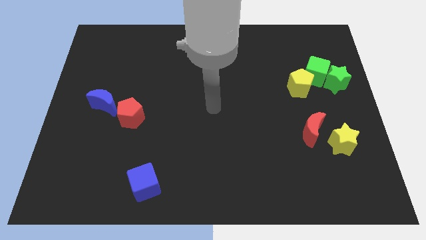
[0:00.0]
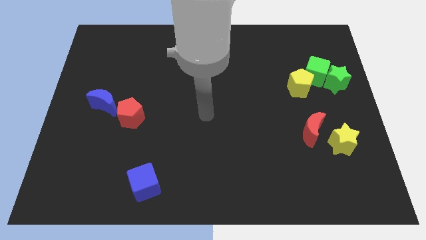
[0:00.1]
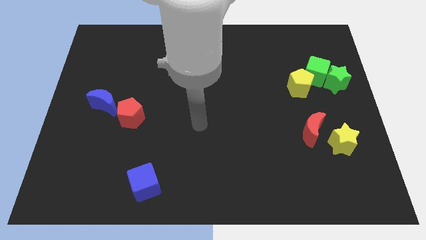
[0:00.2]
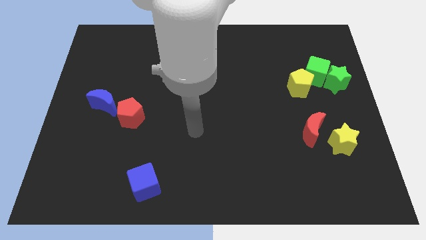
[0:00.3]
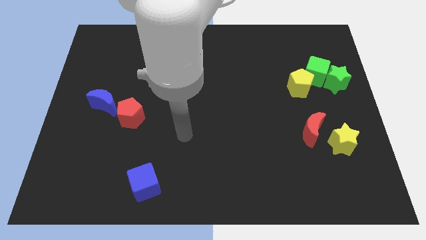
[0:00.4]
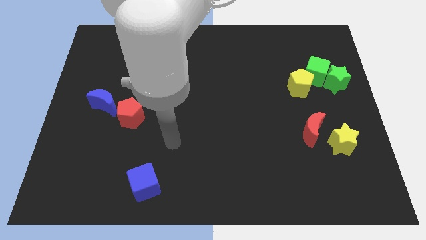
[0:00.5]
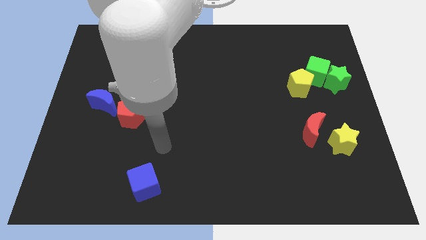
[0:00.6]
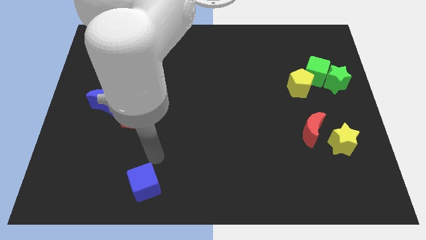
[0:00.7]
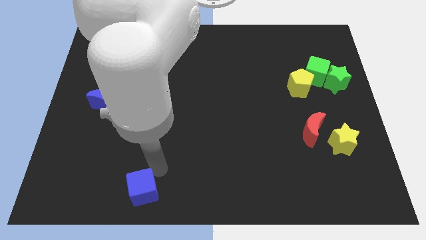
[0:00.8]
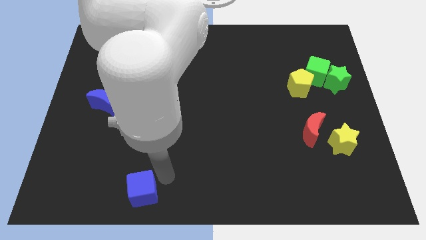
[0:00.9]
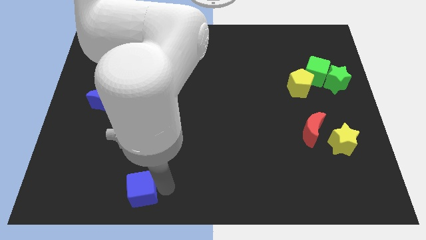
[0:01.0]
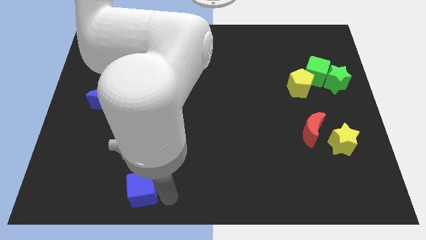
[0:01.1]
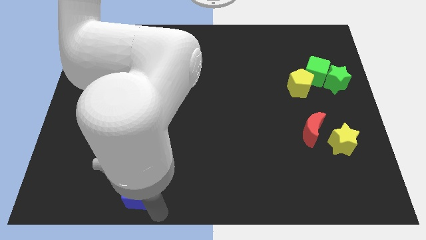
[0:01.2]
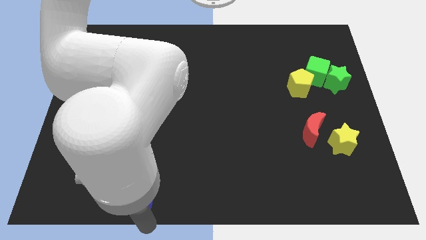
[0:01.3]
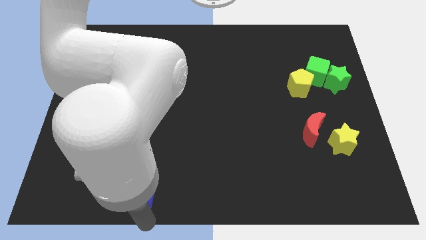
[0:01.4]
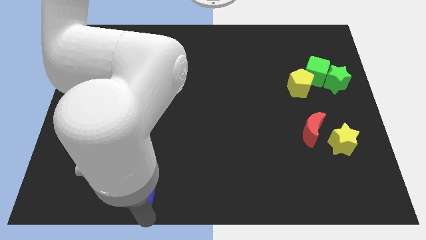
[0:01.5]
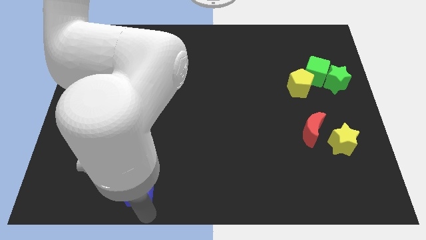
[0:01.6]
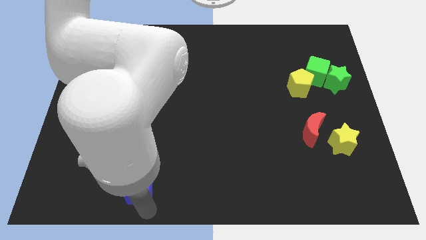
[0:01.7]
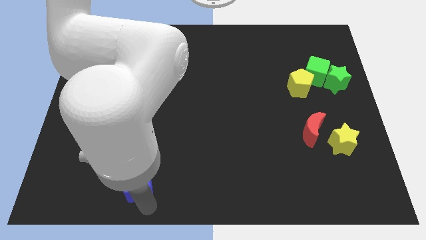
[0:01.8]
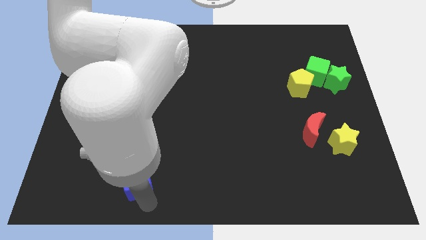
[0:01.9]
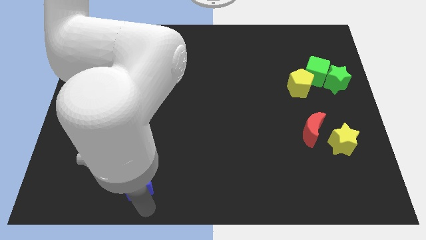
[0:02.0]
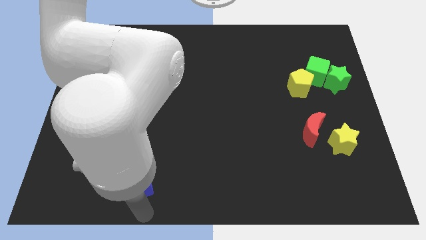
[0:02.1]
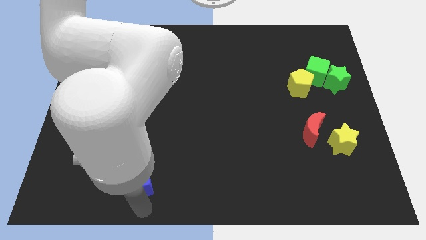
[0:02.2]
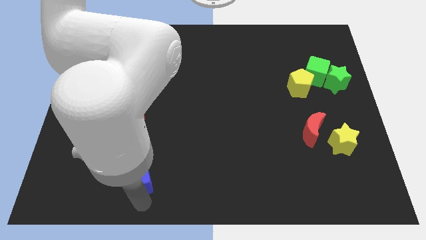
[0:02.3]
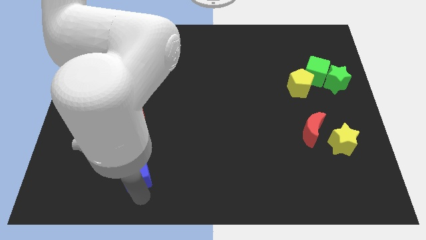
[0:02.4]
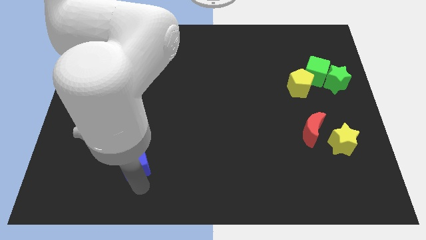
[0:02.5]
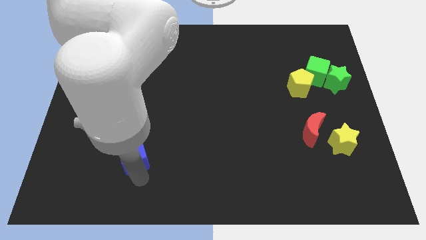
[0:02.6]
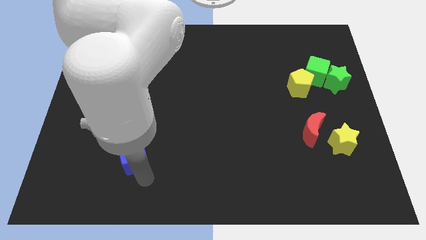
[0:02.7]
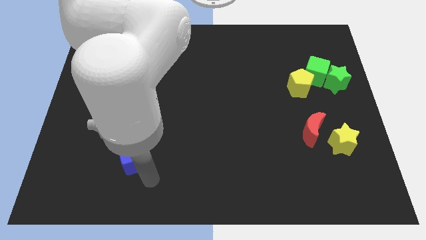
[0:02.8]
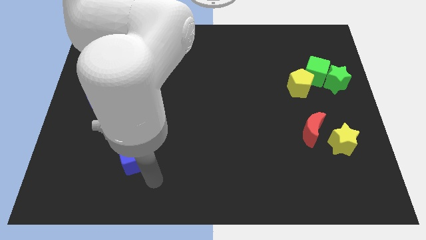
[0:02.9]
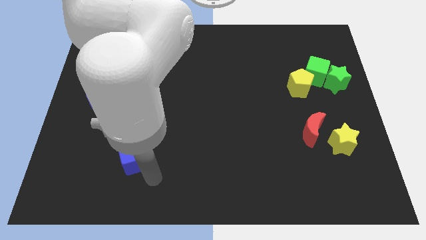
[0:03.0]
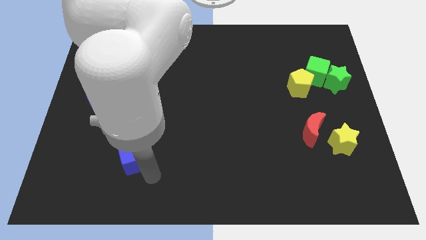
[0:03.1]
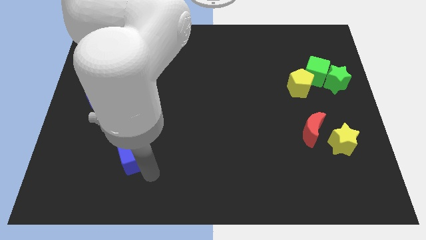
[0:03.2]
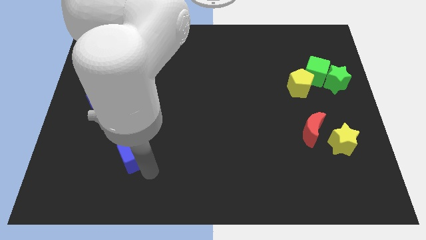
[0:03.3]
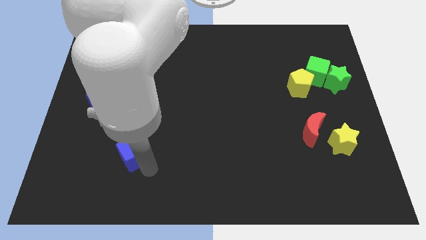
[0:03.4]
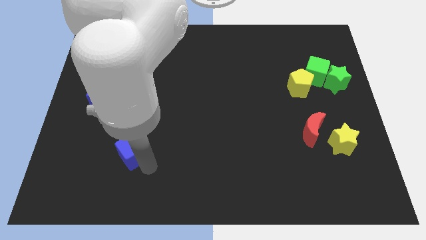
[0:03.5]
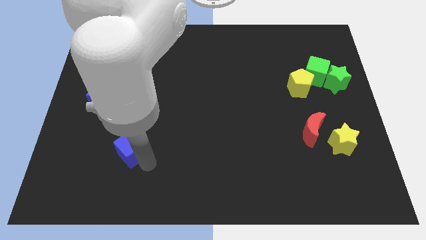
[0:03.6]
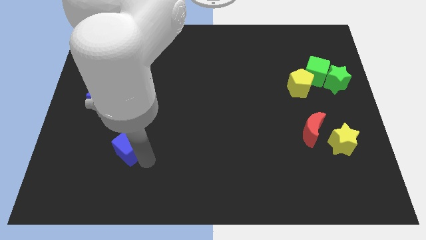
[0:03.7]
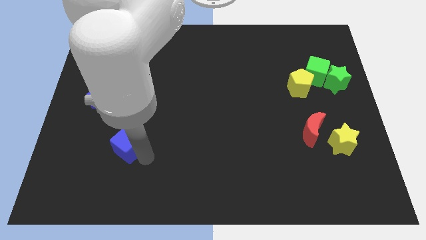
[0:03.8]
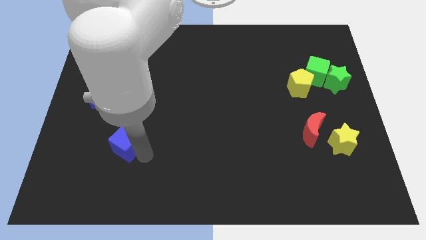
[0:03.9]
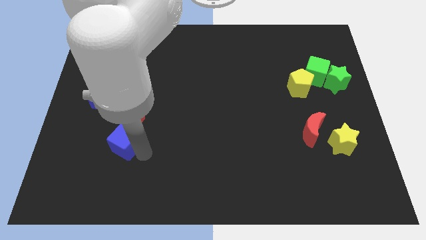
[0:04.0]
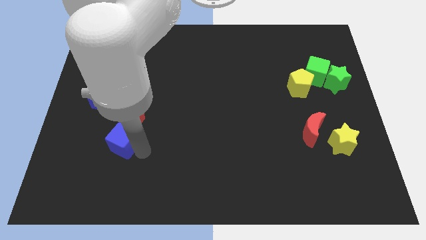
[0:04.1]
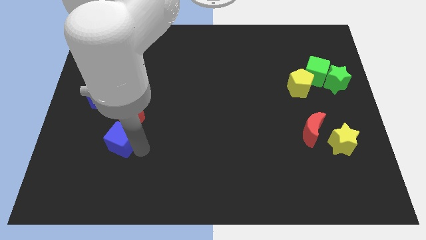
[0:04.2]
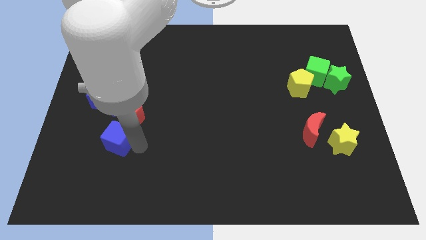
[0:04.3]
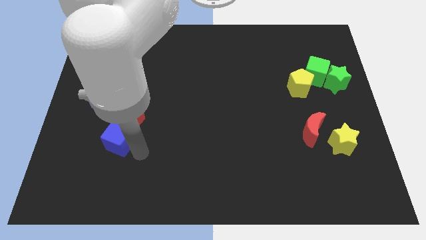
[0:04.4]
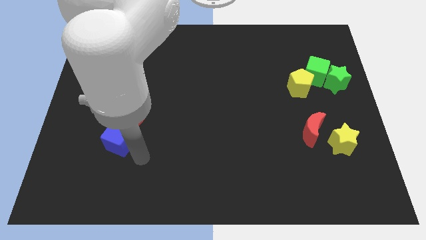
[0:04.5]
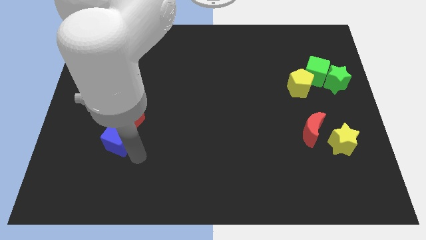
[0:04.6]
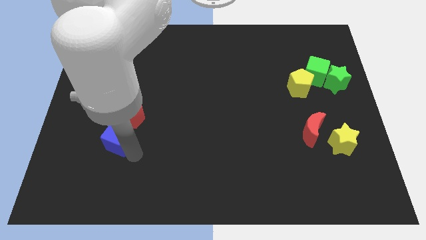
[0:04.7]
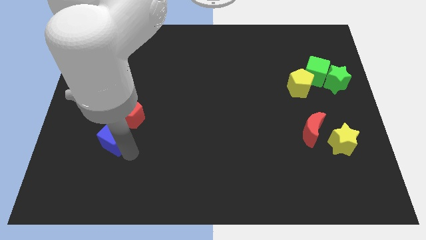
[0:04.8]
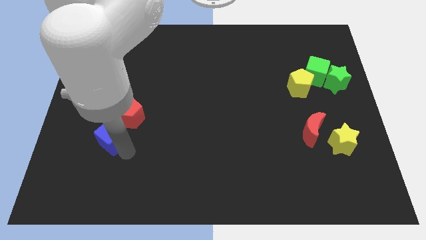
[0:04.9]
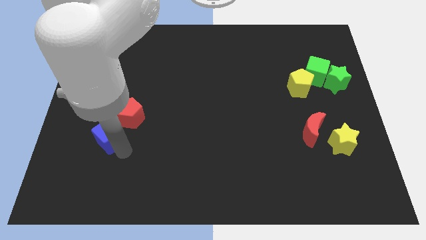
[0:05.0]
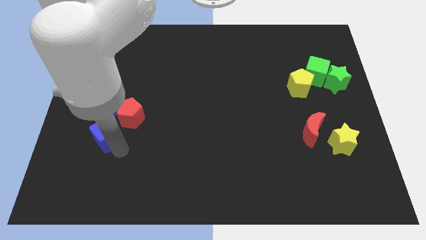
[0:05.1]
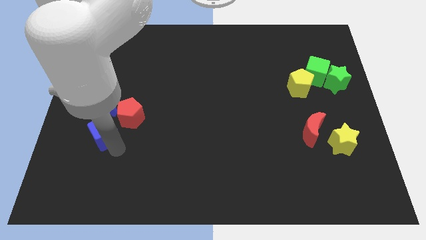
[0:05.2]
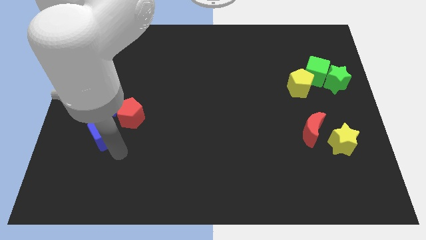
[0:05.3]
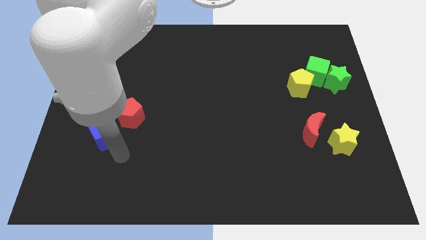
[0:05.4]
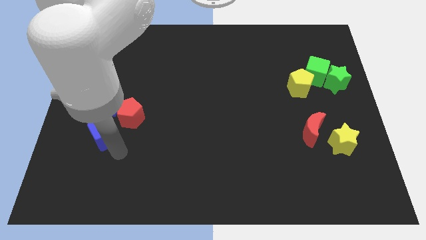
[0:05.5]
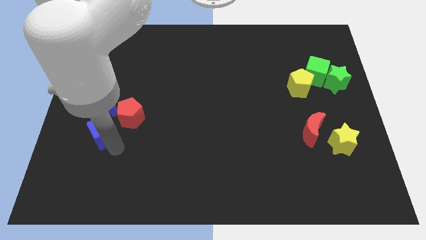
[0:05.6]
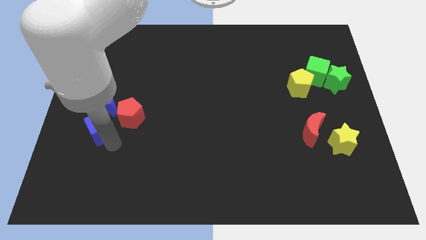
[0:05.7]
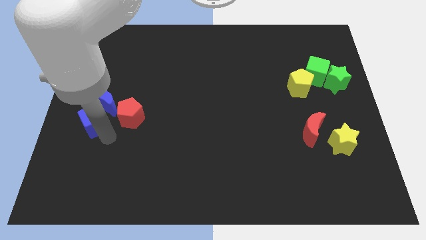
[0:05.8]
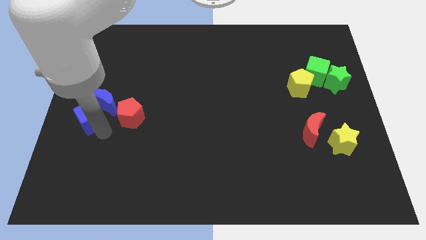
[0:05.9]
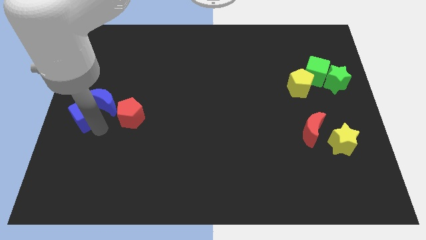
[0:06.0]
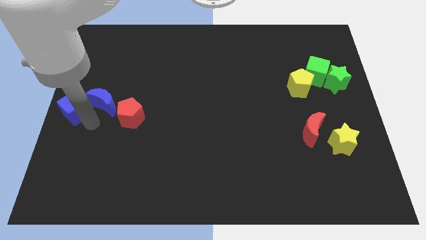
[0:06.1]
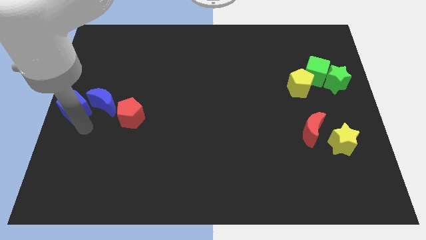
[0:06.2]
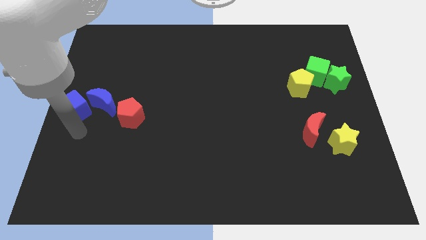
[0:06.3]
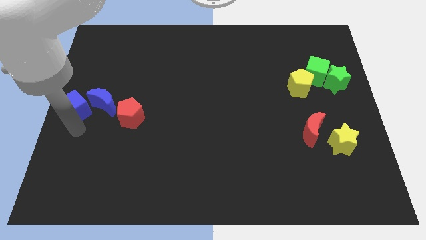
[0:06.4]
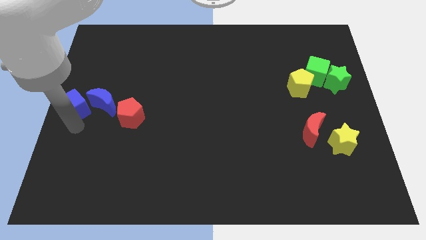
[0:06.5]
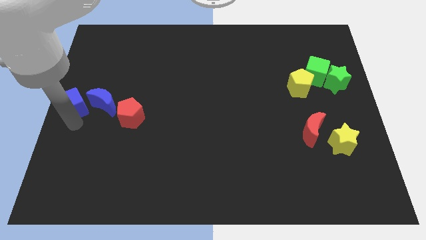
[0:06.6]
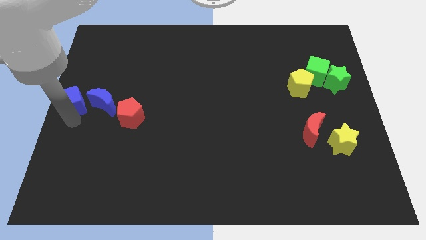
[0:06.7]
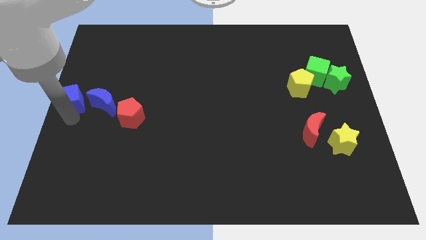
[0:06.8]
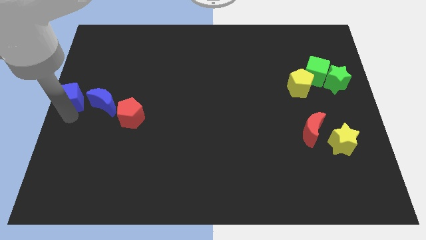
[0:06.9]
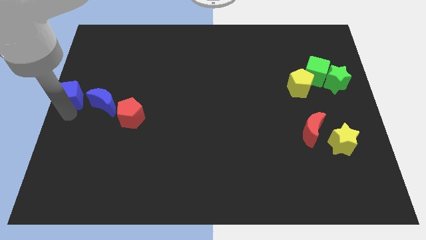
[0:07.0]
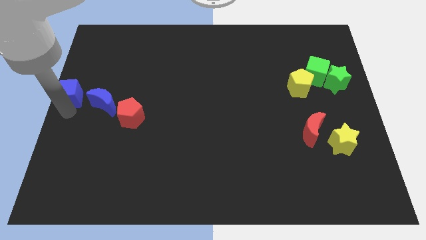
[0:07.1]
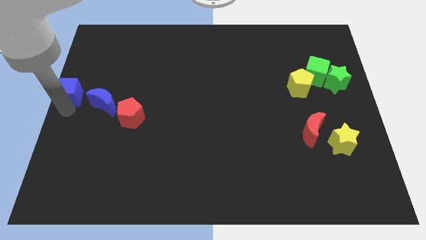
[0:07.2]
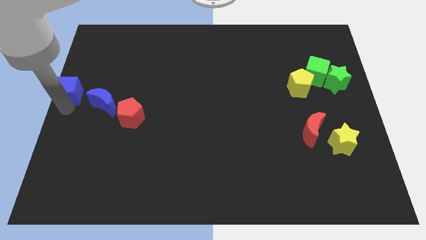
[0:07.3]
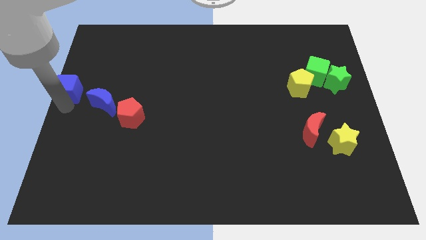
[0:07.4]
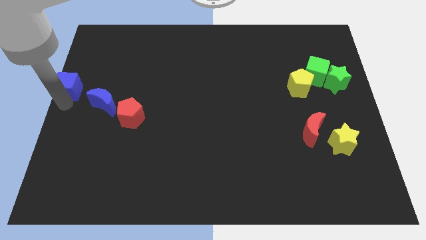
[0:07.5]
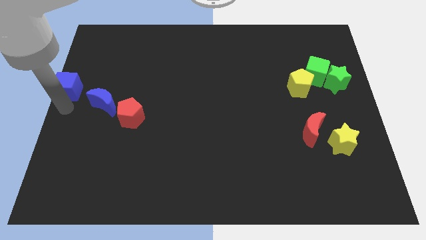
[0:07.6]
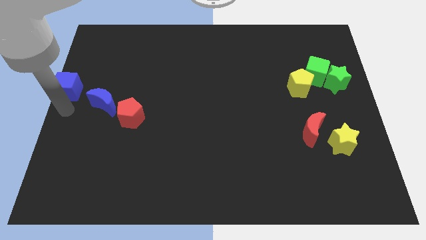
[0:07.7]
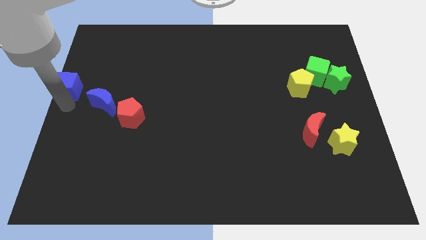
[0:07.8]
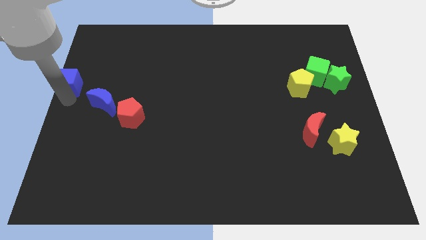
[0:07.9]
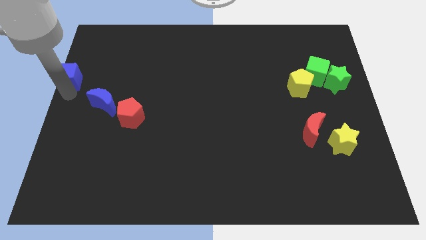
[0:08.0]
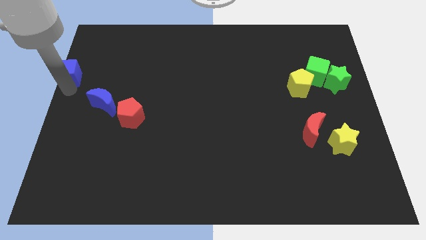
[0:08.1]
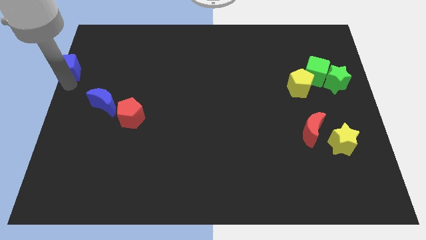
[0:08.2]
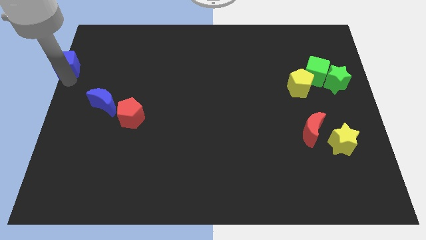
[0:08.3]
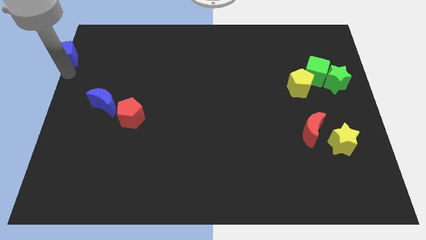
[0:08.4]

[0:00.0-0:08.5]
put the blue cube to the top left corner
